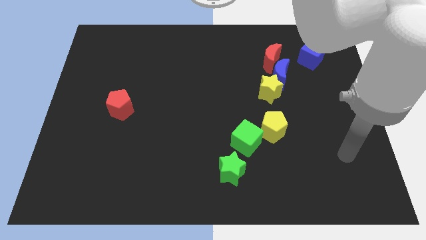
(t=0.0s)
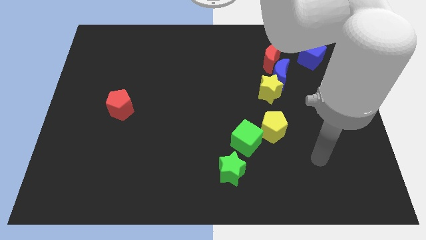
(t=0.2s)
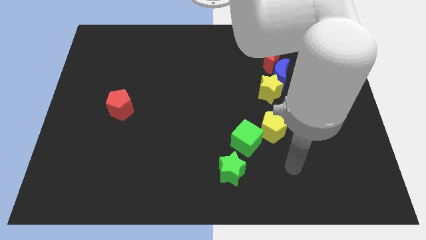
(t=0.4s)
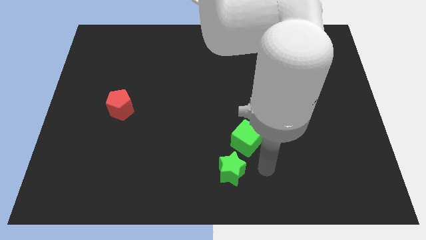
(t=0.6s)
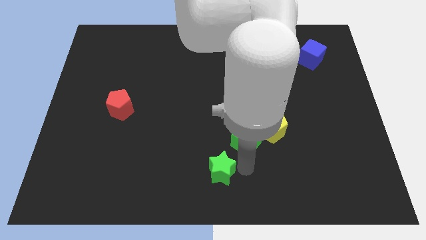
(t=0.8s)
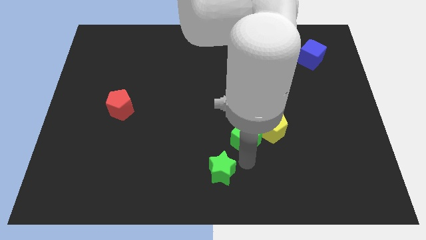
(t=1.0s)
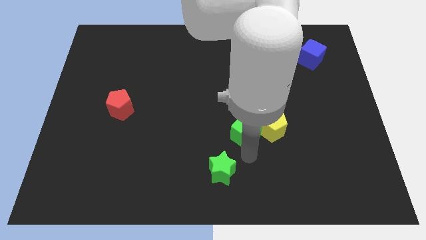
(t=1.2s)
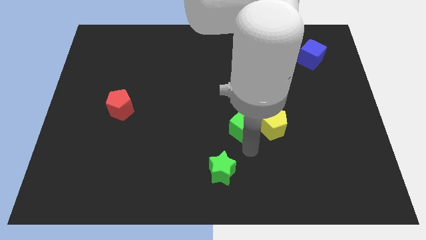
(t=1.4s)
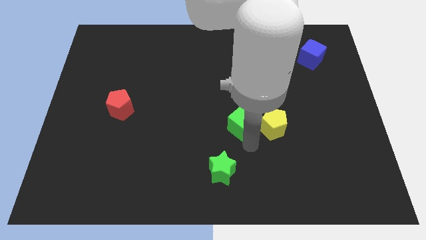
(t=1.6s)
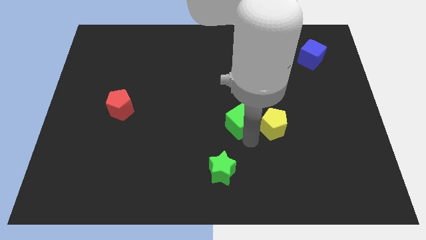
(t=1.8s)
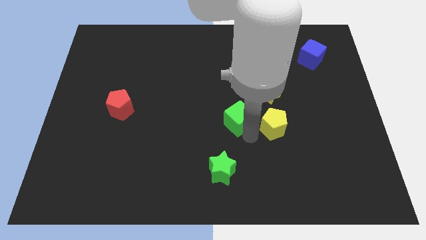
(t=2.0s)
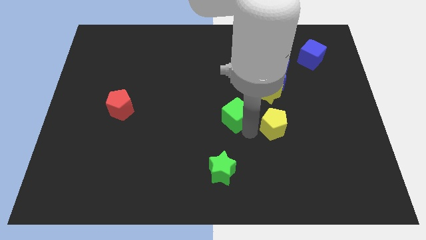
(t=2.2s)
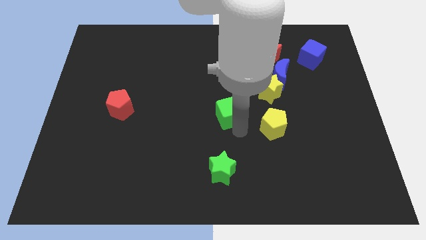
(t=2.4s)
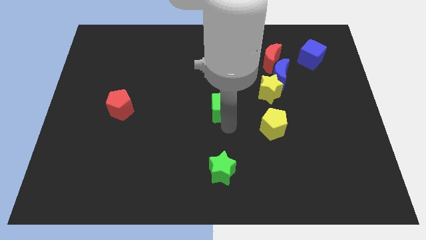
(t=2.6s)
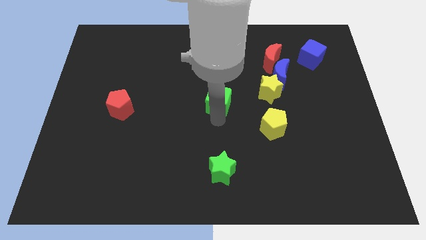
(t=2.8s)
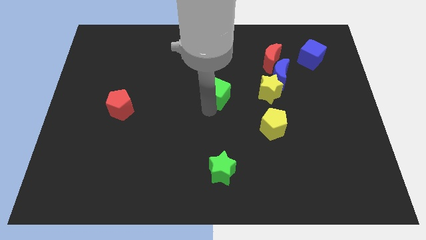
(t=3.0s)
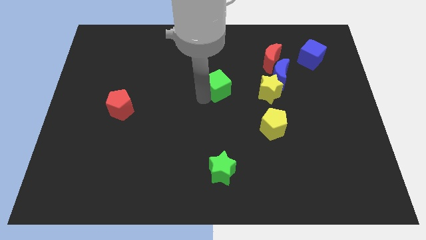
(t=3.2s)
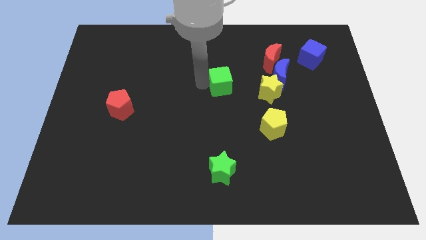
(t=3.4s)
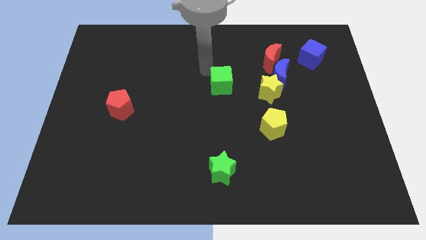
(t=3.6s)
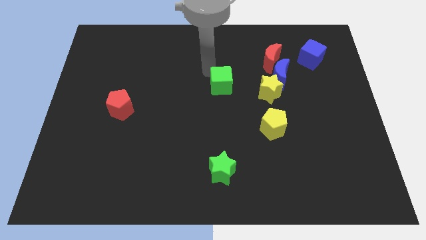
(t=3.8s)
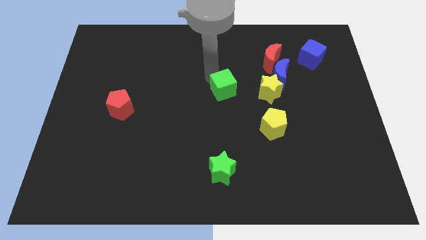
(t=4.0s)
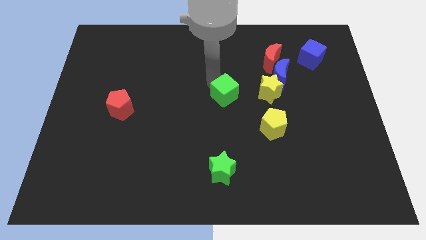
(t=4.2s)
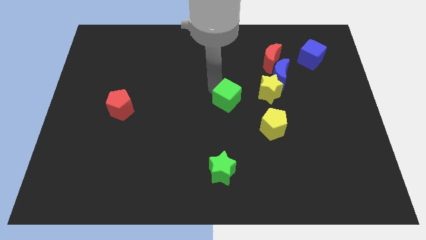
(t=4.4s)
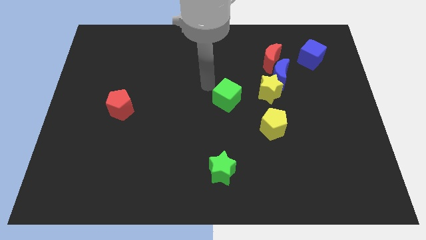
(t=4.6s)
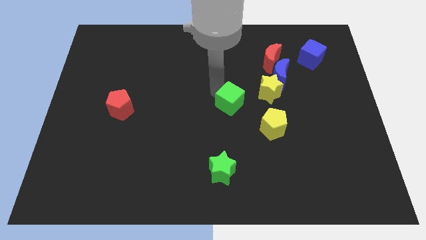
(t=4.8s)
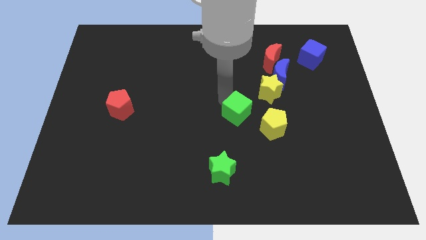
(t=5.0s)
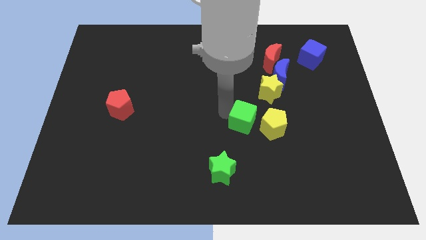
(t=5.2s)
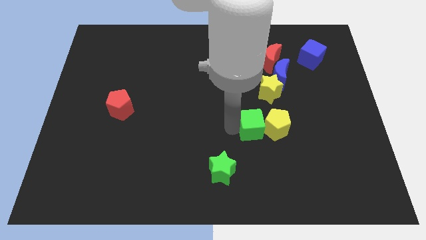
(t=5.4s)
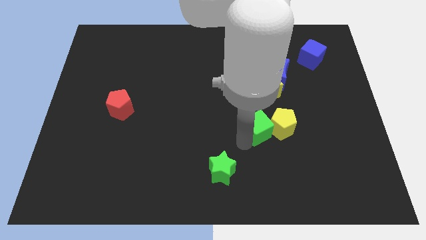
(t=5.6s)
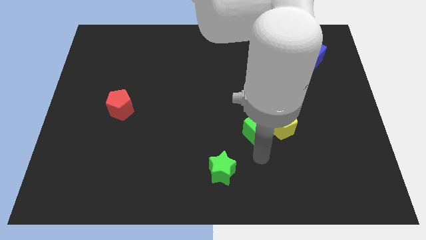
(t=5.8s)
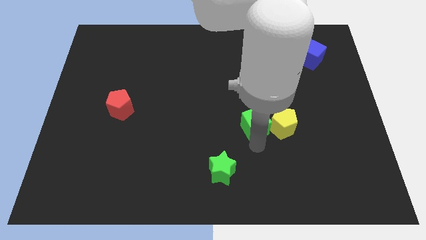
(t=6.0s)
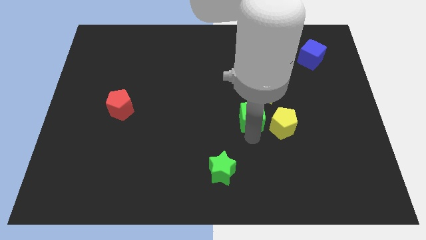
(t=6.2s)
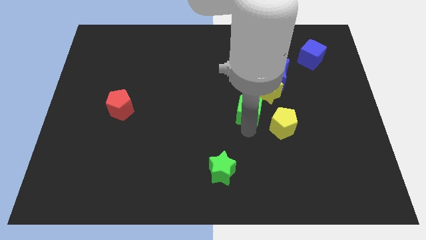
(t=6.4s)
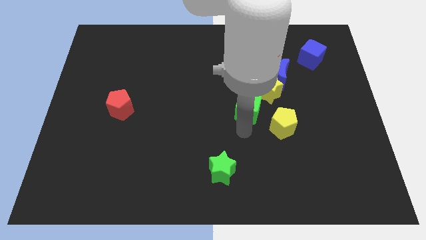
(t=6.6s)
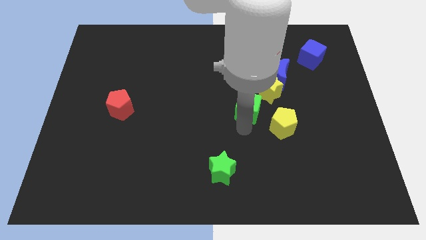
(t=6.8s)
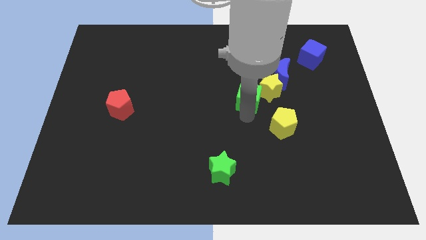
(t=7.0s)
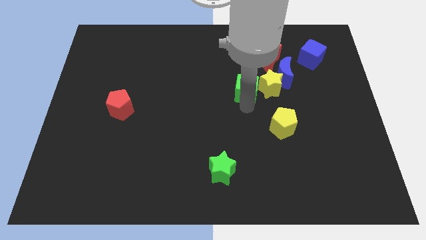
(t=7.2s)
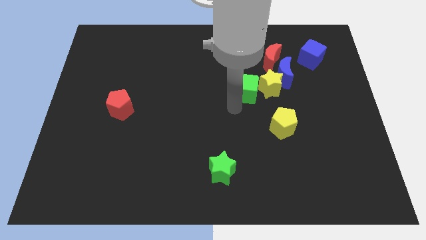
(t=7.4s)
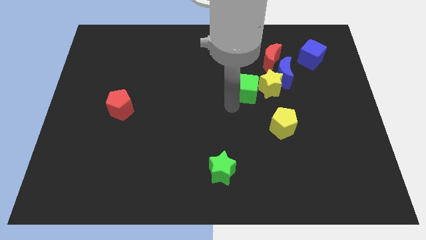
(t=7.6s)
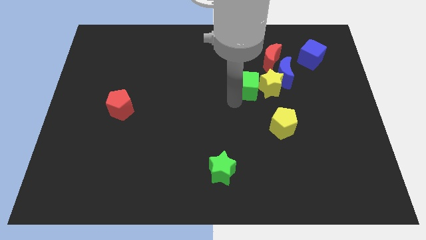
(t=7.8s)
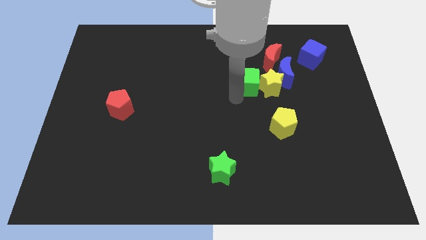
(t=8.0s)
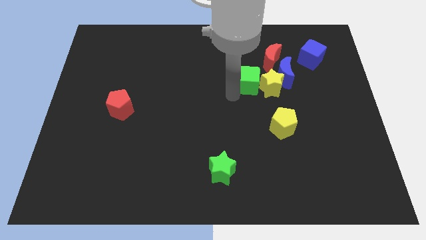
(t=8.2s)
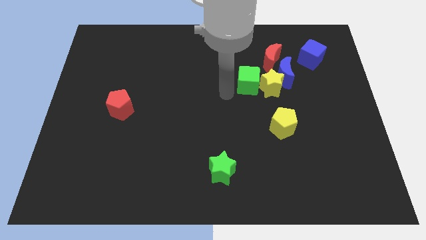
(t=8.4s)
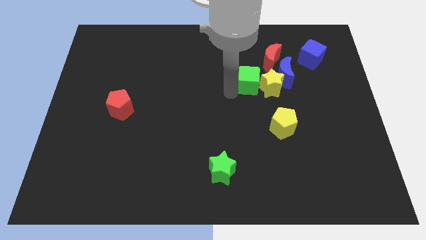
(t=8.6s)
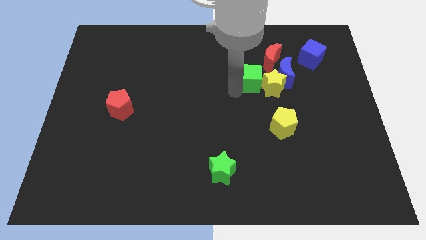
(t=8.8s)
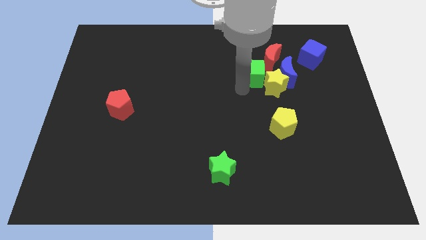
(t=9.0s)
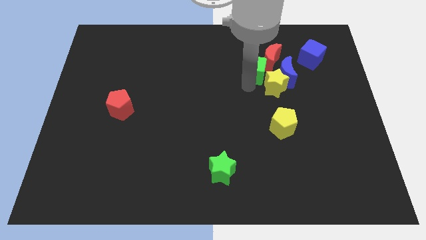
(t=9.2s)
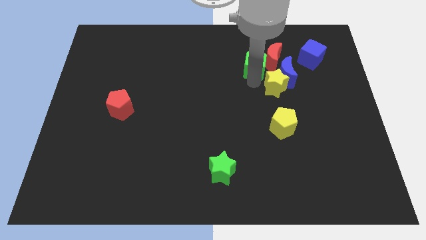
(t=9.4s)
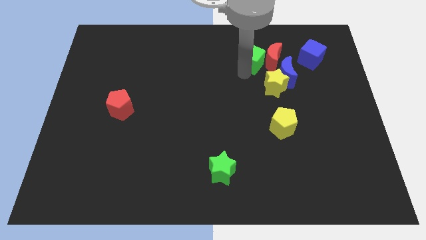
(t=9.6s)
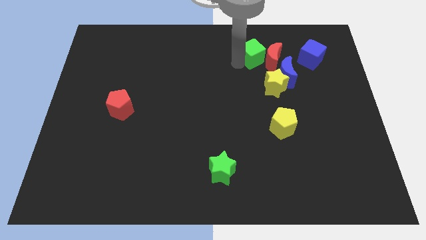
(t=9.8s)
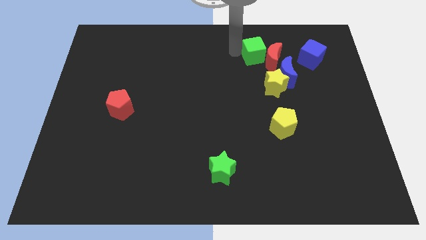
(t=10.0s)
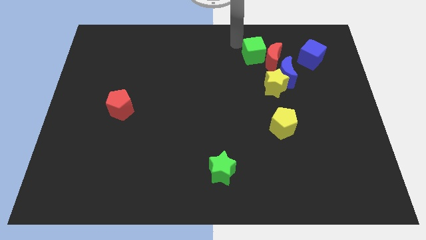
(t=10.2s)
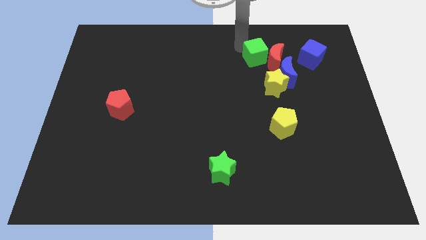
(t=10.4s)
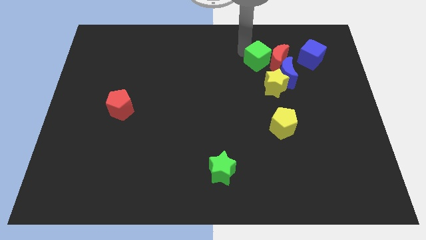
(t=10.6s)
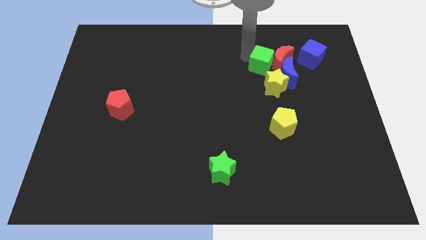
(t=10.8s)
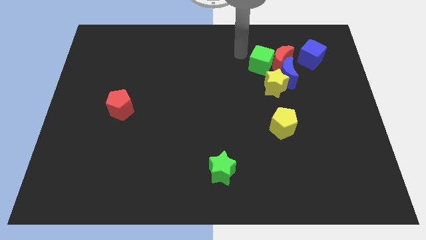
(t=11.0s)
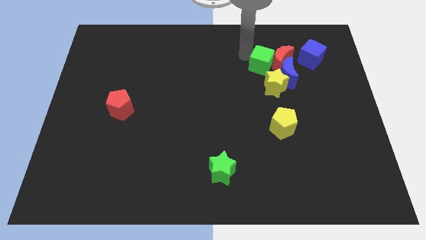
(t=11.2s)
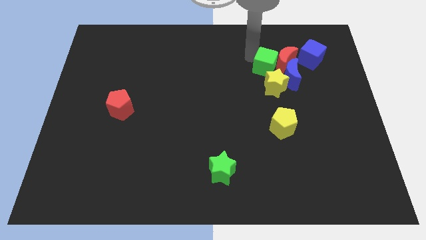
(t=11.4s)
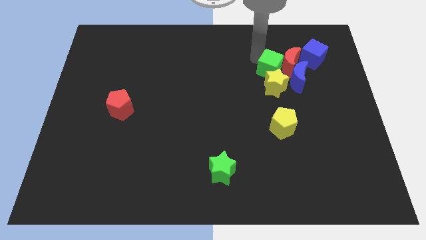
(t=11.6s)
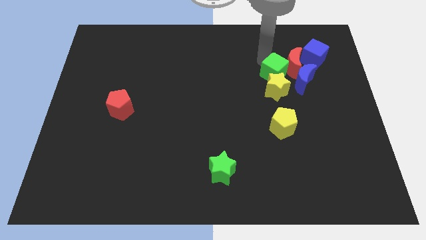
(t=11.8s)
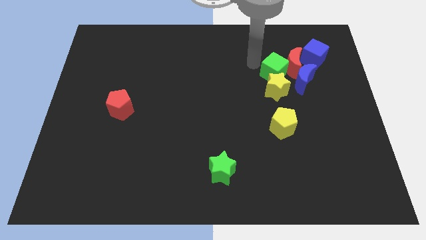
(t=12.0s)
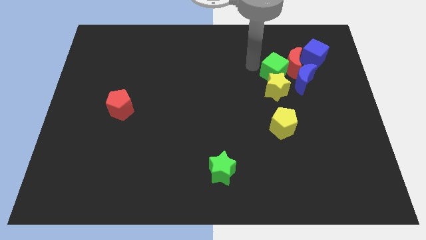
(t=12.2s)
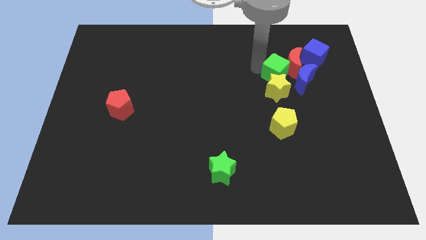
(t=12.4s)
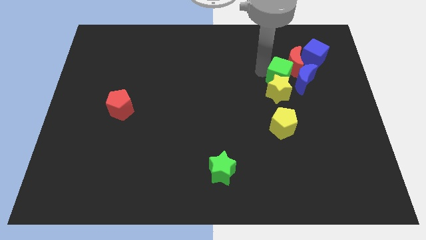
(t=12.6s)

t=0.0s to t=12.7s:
put the green cube towards the blue moon

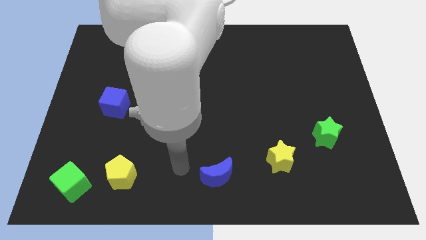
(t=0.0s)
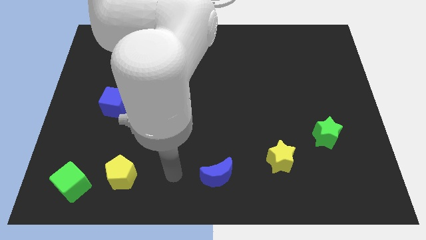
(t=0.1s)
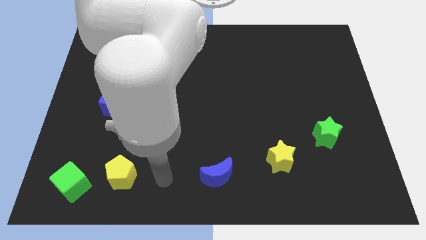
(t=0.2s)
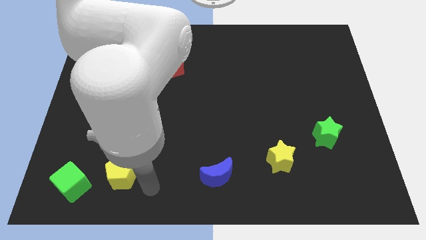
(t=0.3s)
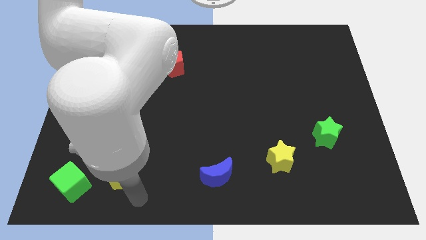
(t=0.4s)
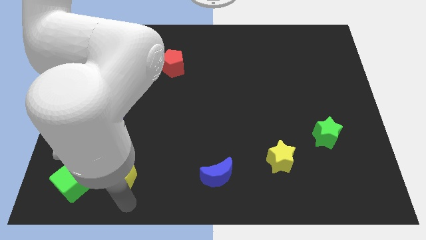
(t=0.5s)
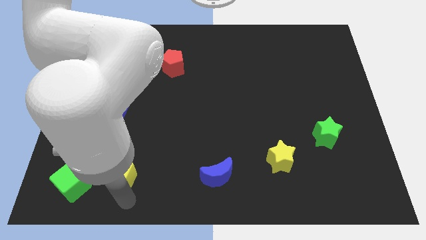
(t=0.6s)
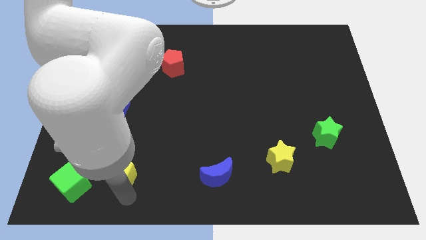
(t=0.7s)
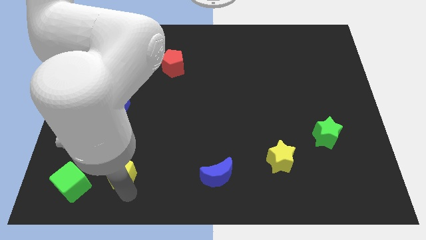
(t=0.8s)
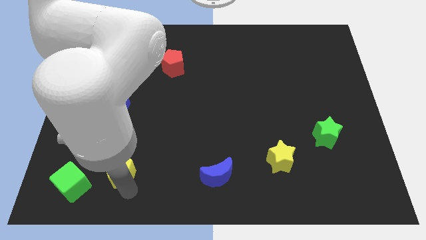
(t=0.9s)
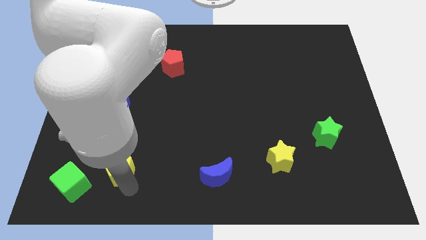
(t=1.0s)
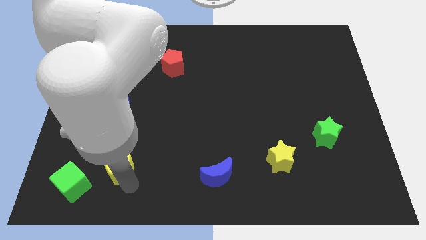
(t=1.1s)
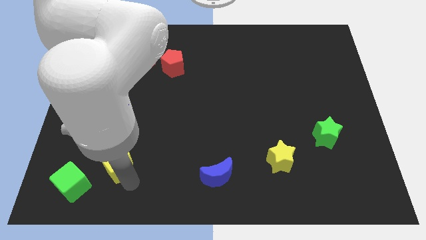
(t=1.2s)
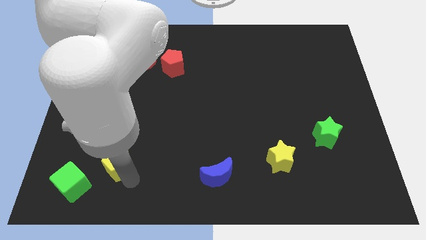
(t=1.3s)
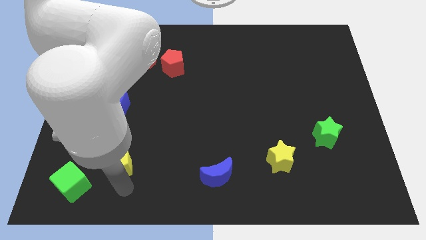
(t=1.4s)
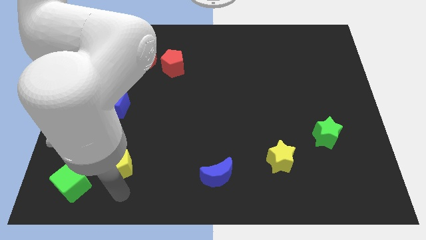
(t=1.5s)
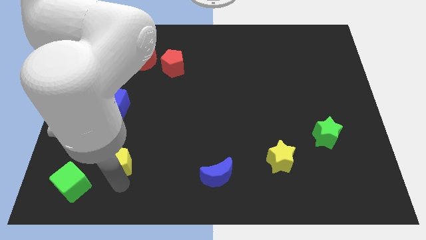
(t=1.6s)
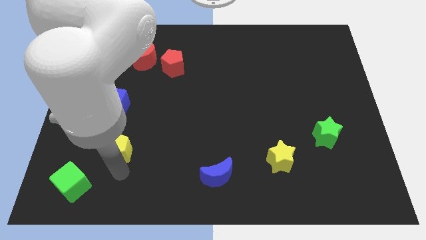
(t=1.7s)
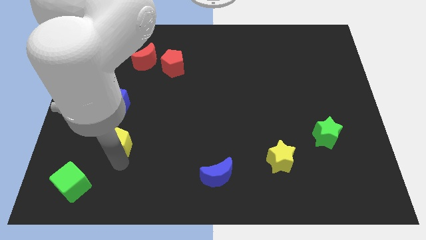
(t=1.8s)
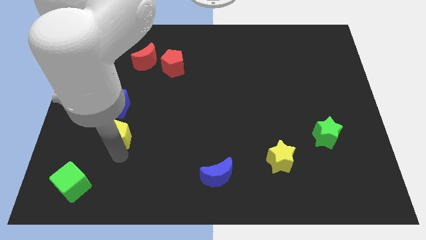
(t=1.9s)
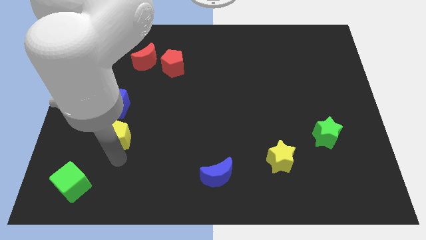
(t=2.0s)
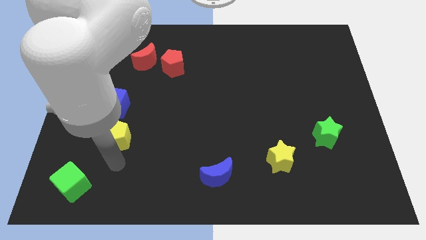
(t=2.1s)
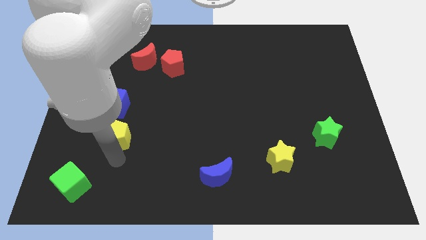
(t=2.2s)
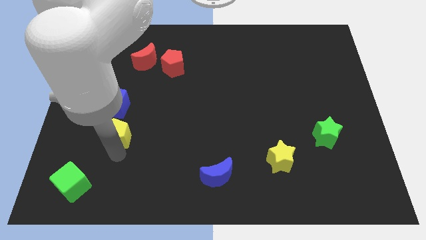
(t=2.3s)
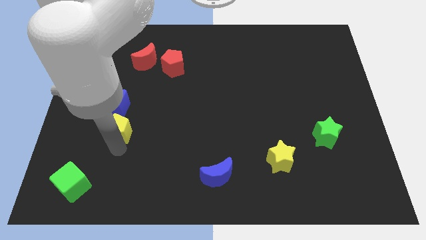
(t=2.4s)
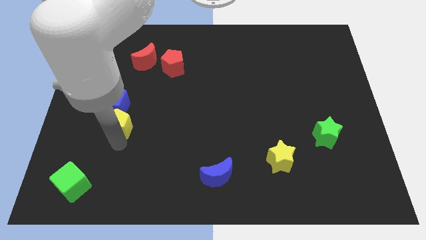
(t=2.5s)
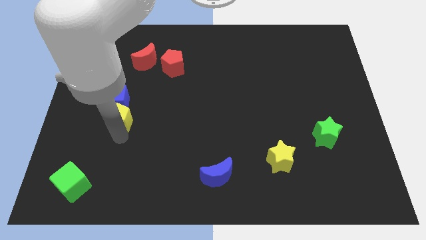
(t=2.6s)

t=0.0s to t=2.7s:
push the yellow pentagon next to the blue cube
